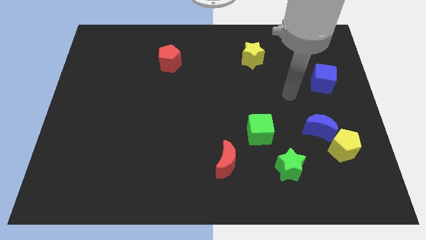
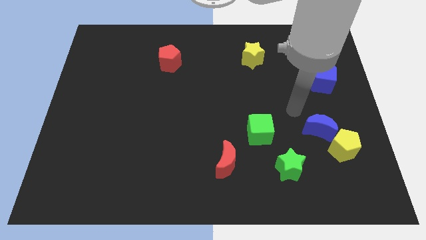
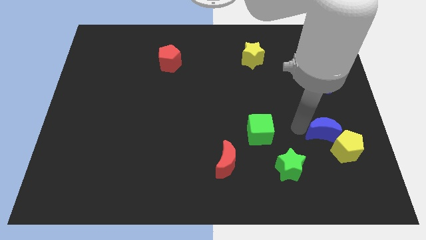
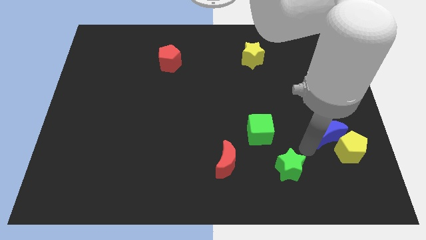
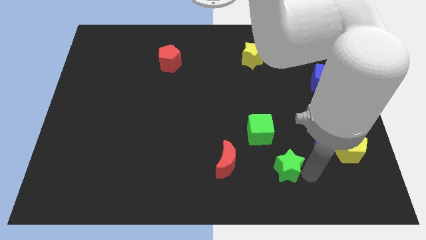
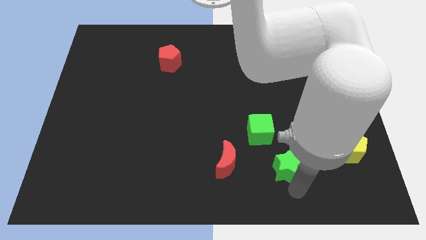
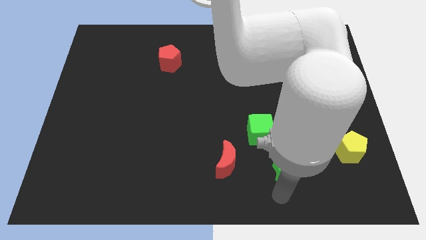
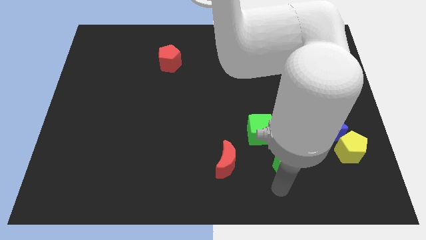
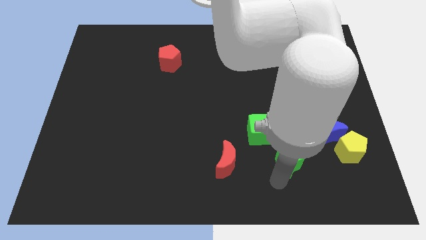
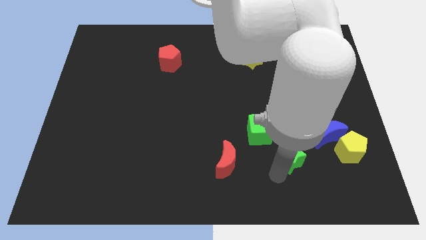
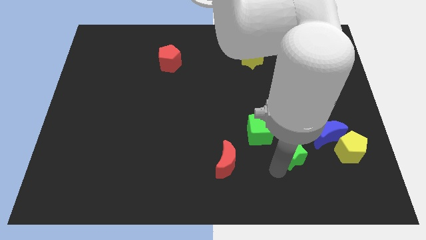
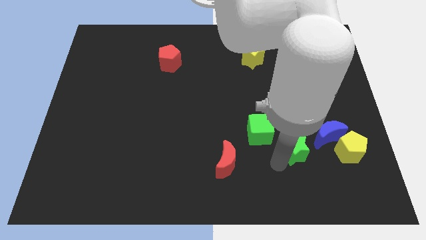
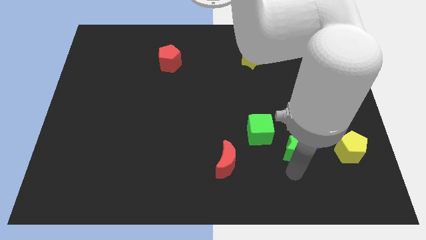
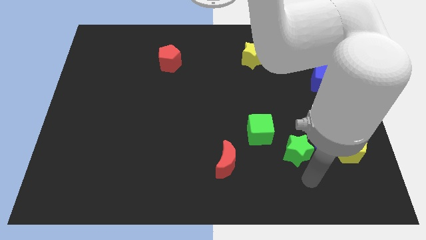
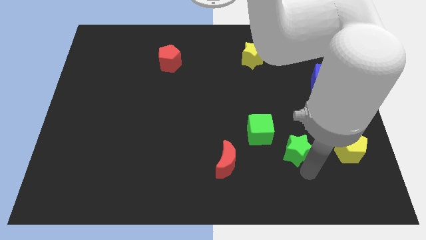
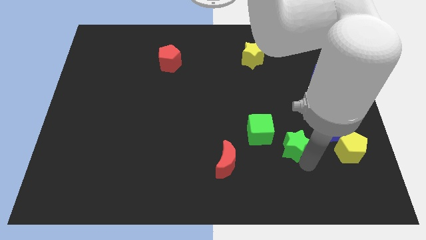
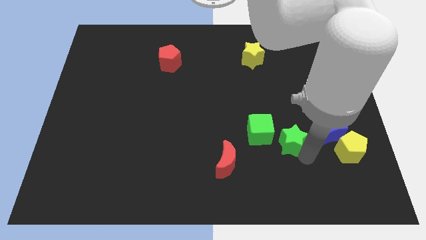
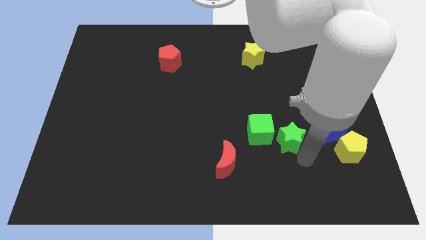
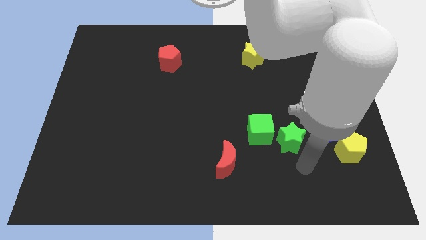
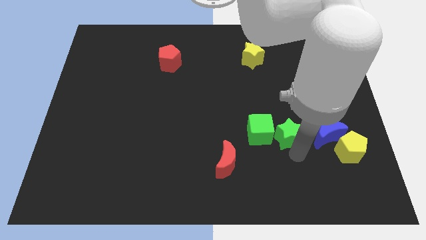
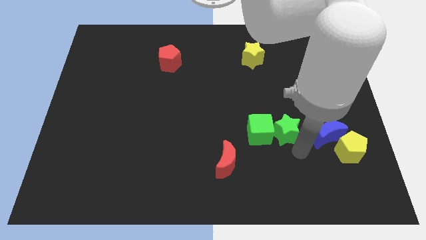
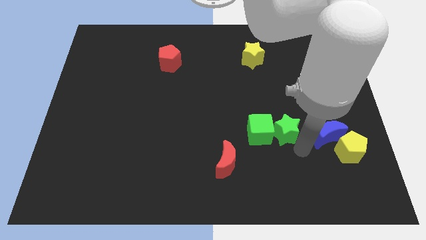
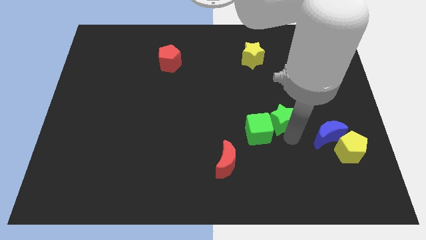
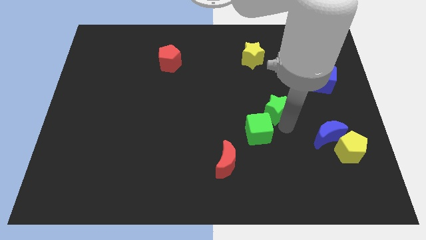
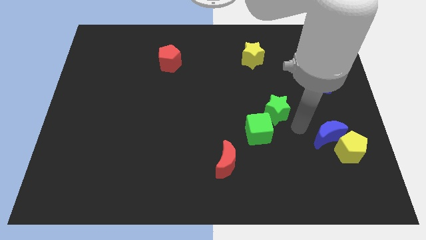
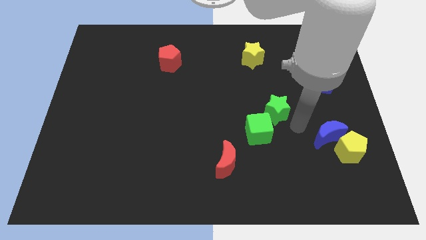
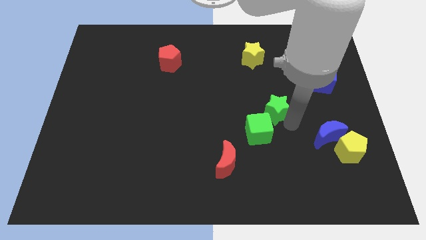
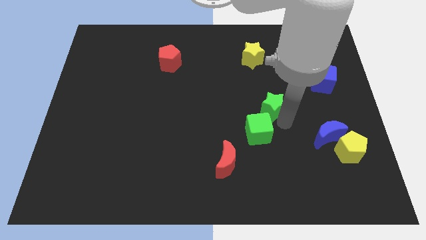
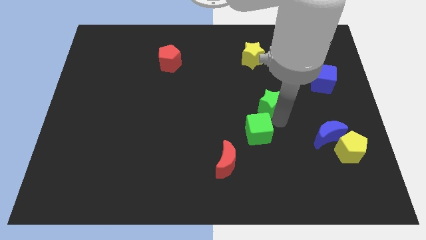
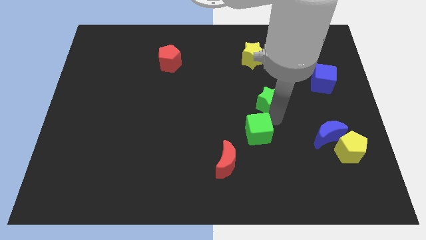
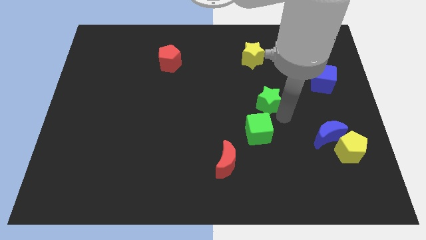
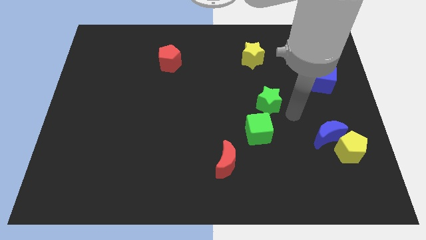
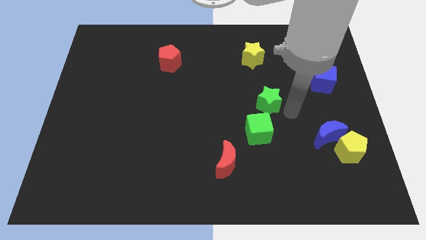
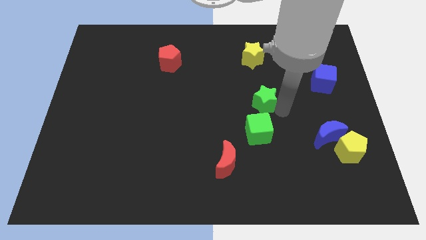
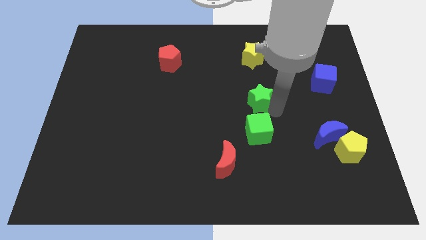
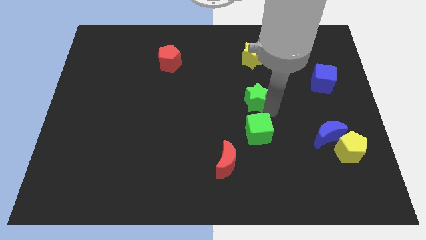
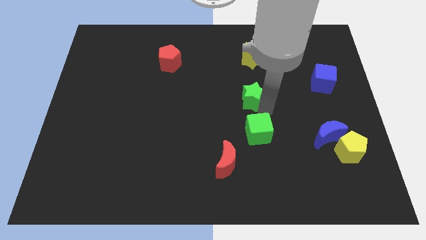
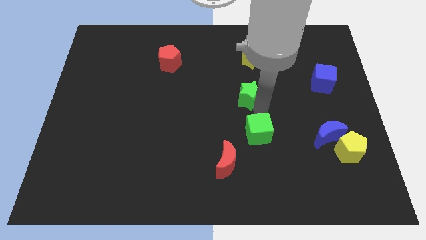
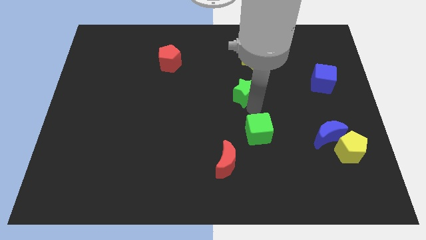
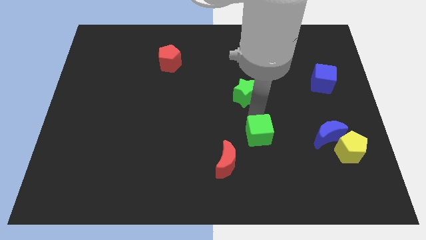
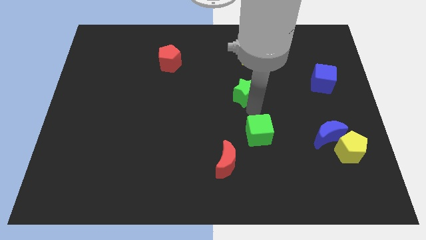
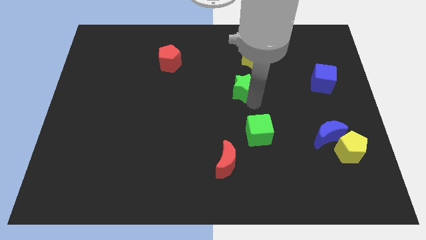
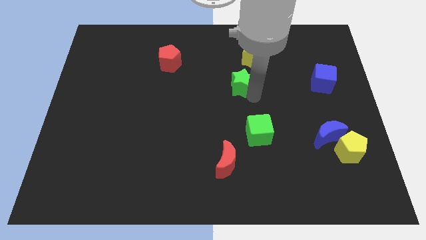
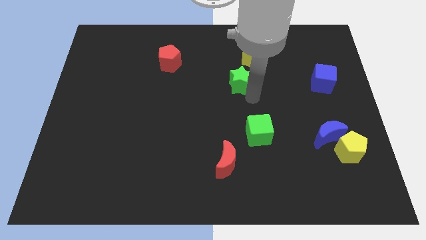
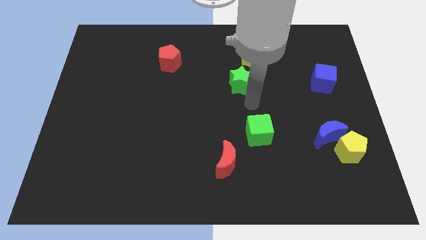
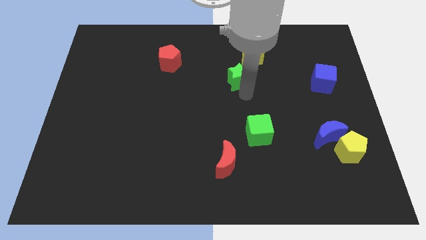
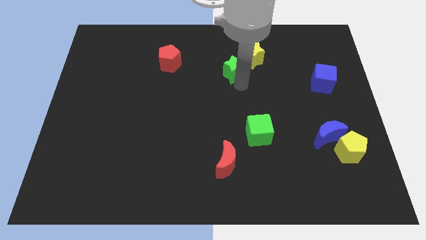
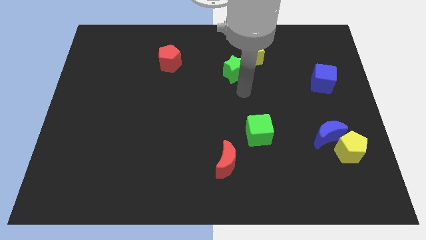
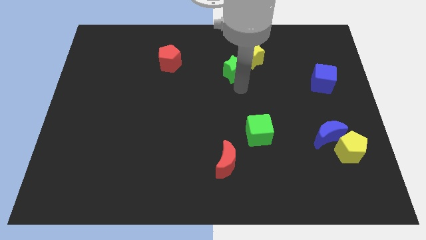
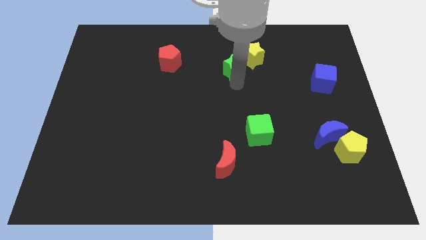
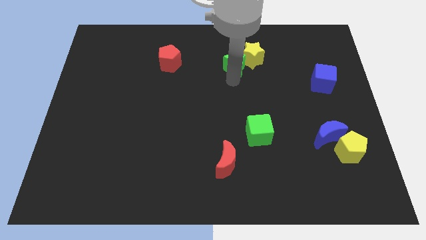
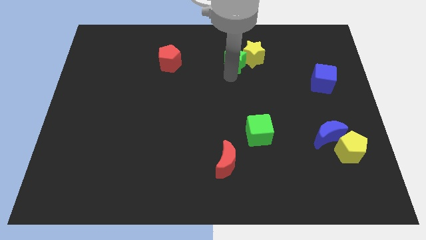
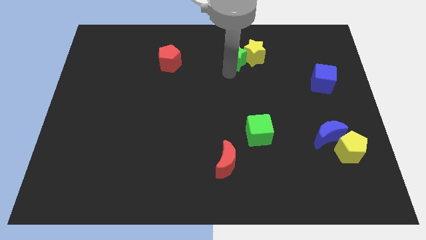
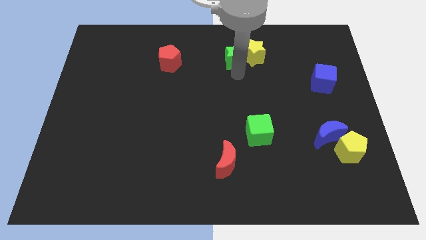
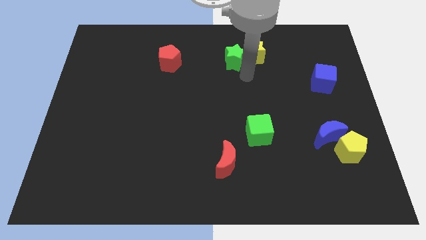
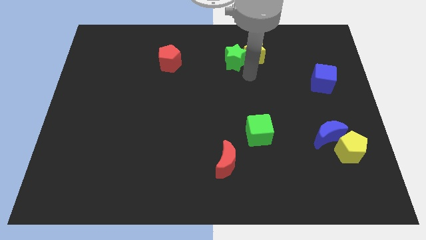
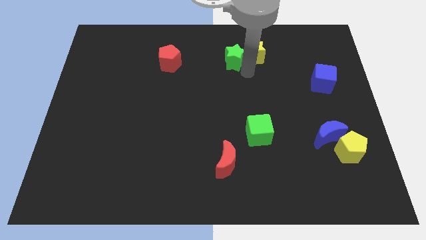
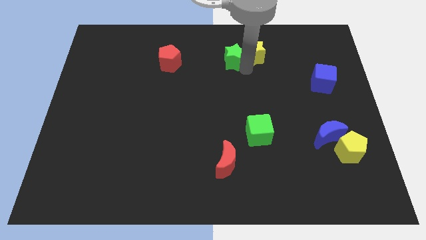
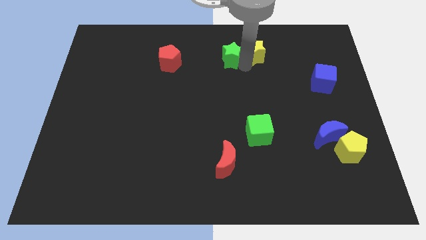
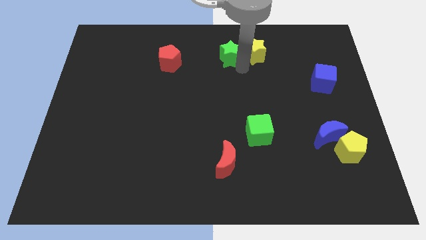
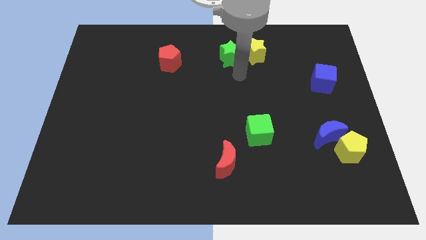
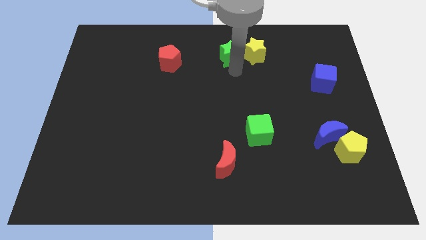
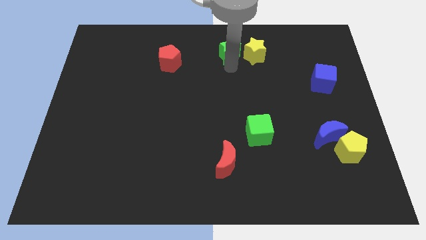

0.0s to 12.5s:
slide the green star to the top side
